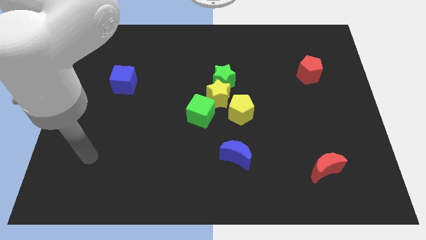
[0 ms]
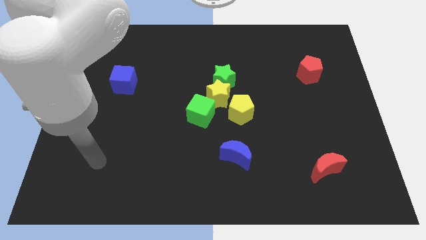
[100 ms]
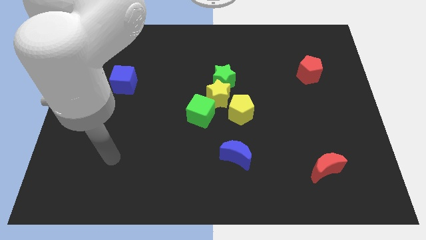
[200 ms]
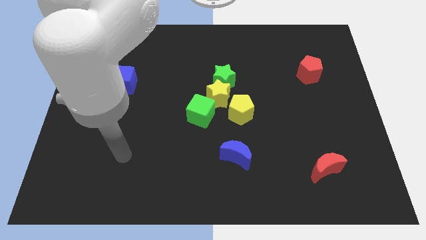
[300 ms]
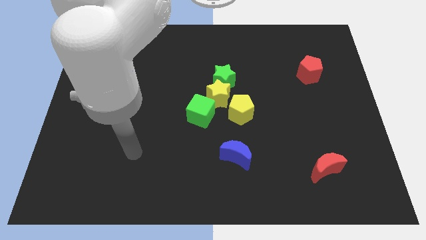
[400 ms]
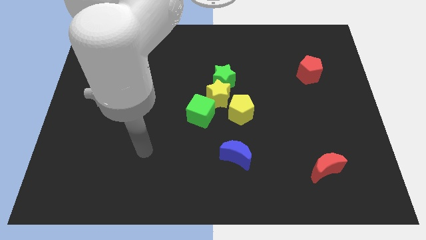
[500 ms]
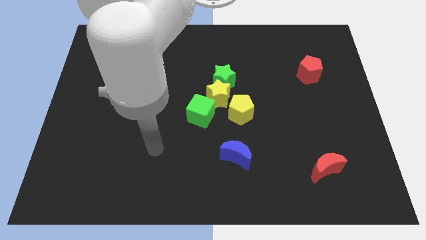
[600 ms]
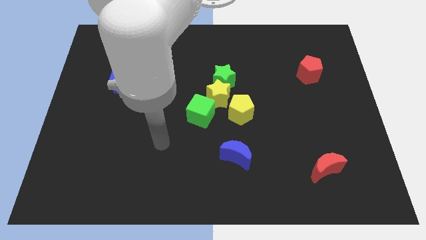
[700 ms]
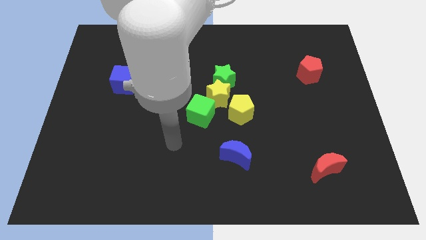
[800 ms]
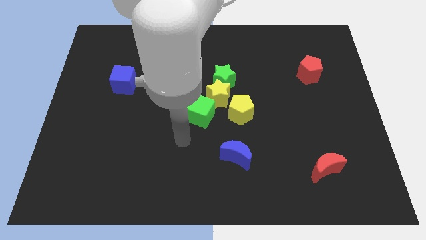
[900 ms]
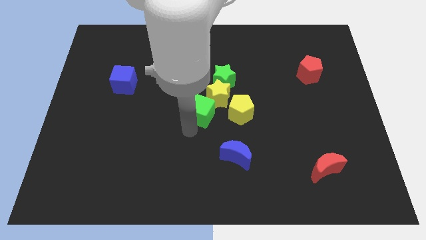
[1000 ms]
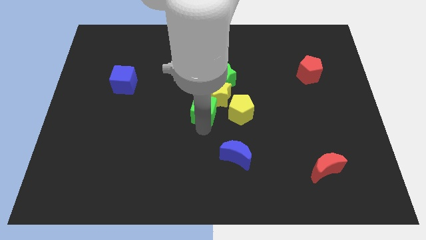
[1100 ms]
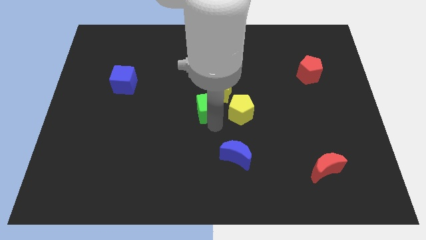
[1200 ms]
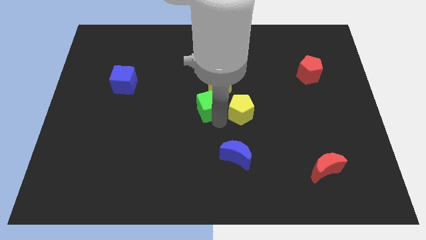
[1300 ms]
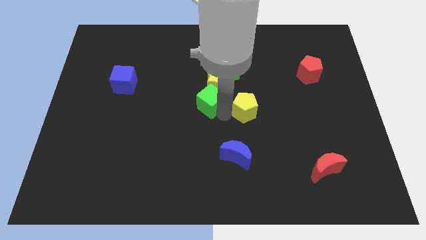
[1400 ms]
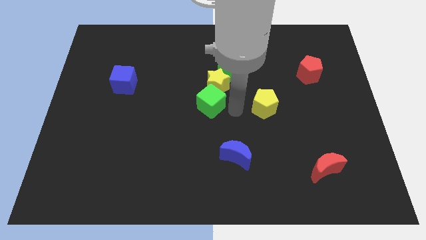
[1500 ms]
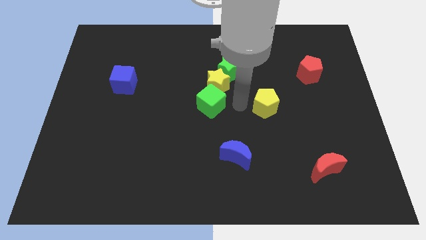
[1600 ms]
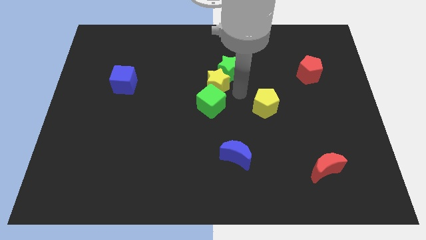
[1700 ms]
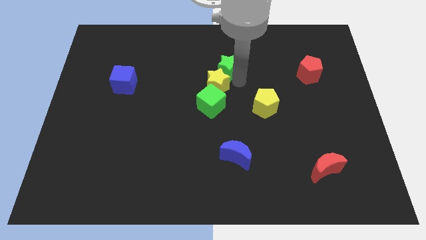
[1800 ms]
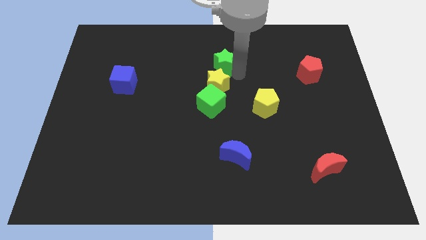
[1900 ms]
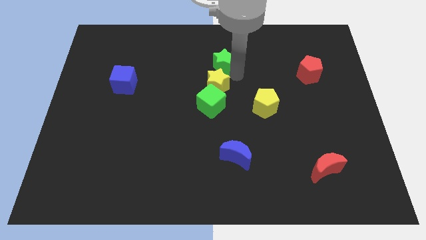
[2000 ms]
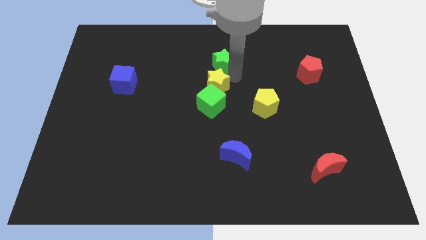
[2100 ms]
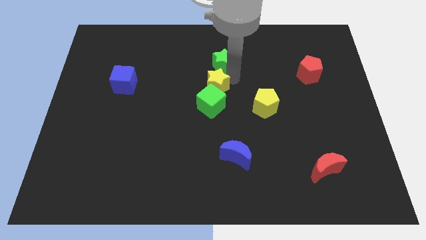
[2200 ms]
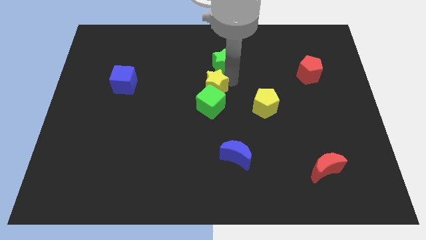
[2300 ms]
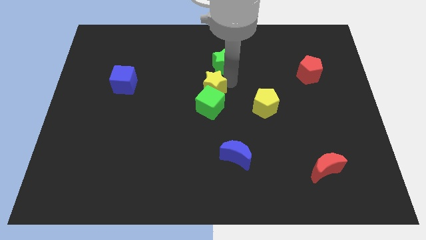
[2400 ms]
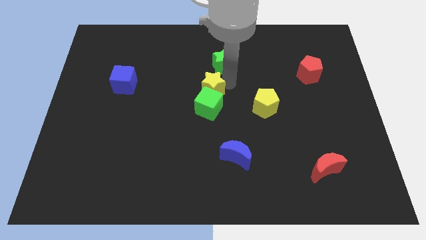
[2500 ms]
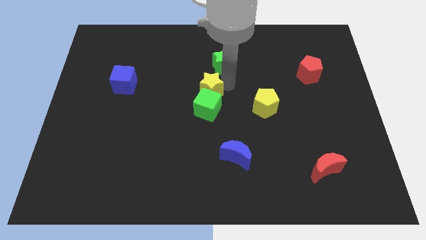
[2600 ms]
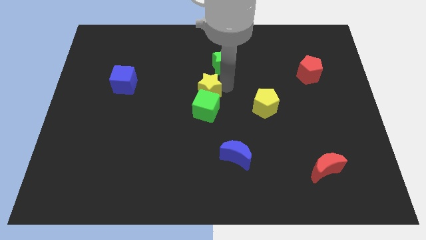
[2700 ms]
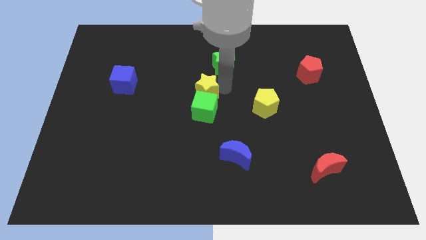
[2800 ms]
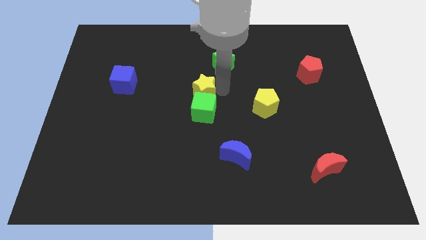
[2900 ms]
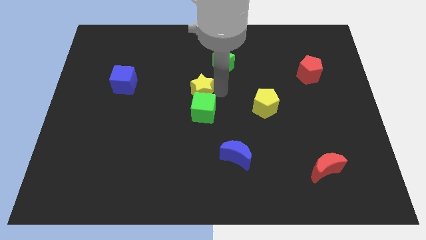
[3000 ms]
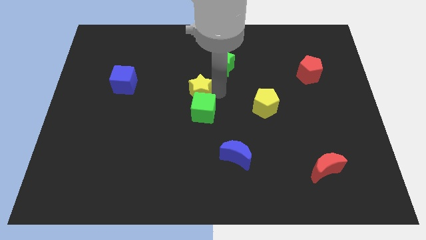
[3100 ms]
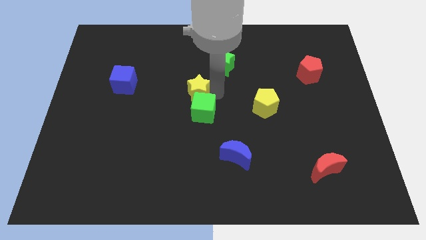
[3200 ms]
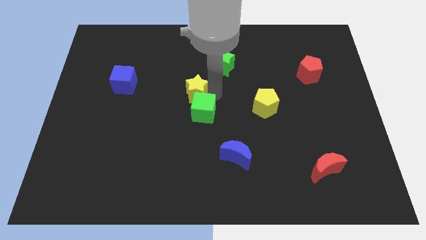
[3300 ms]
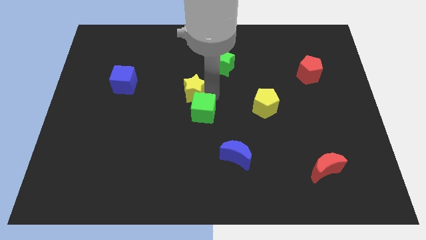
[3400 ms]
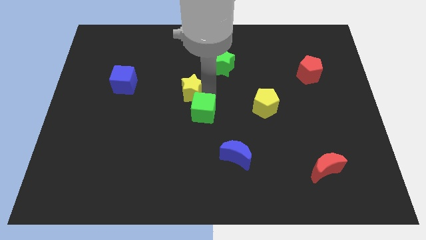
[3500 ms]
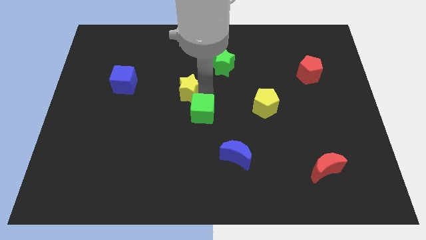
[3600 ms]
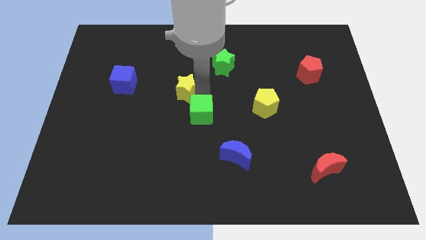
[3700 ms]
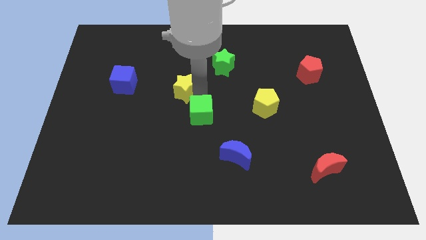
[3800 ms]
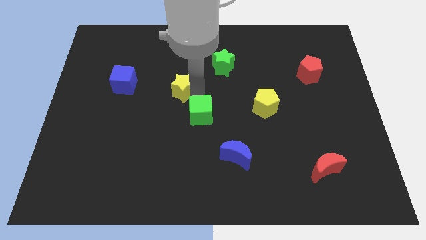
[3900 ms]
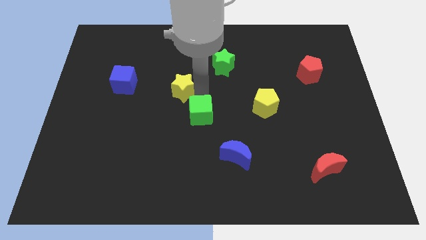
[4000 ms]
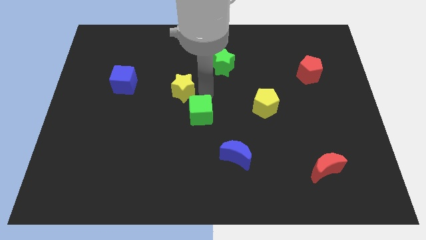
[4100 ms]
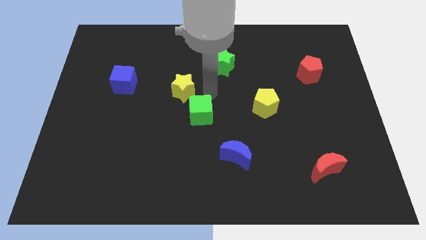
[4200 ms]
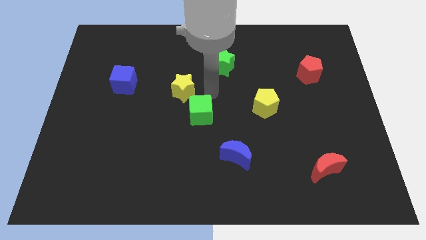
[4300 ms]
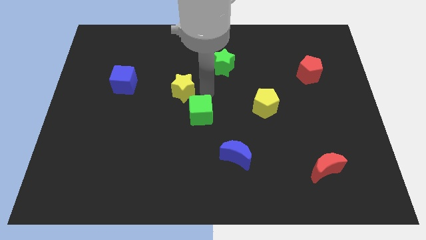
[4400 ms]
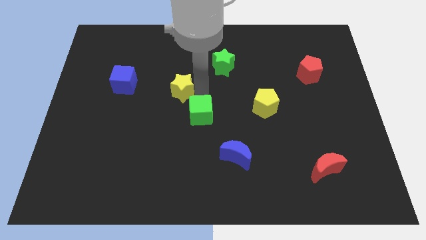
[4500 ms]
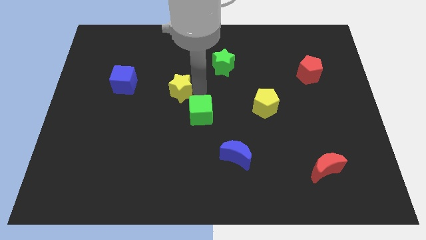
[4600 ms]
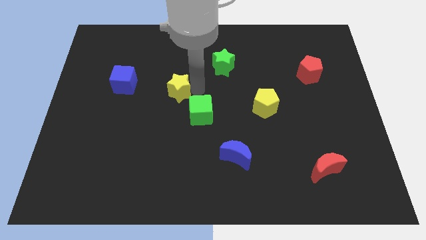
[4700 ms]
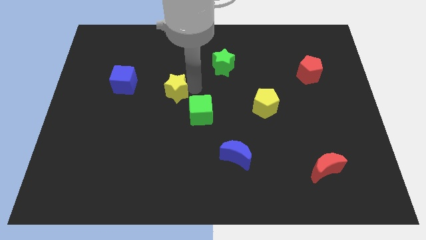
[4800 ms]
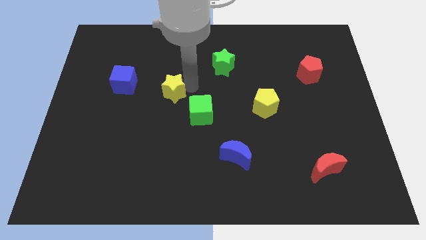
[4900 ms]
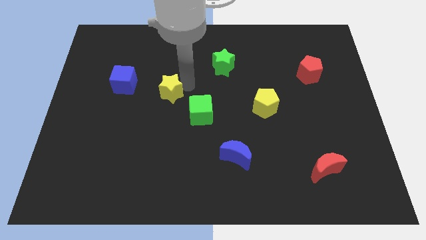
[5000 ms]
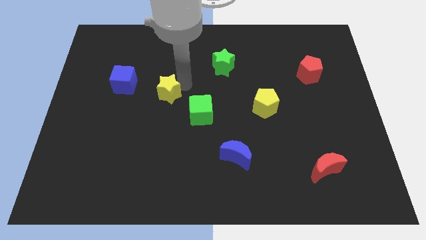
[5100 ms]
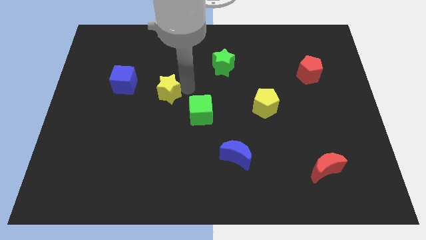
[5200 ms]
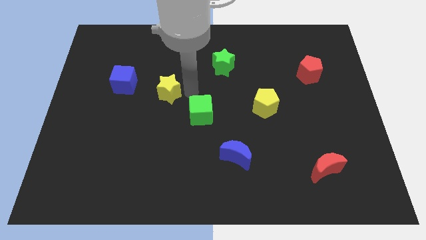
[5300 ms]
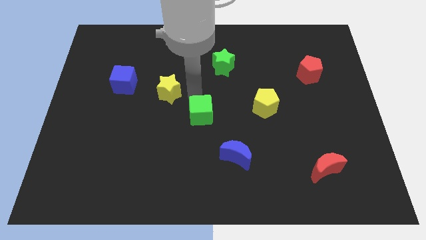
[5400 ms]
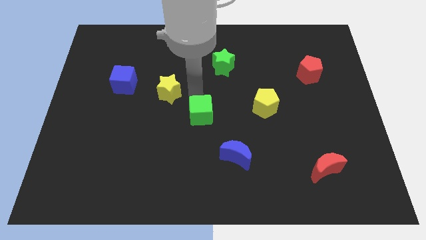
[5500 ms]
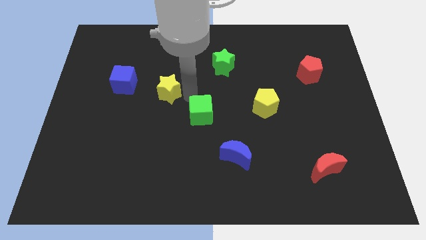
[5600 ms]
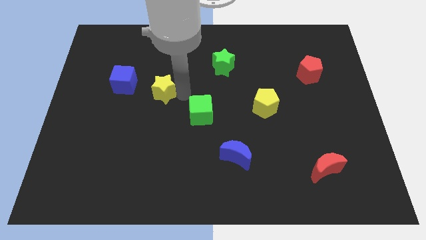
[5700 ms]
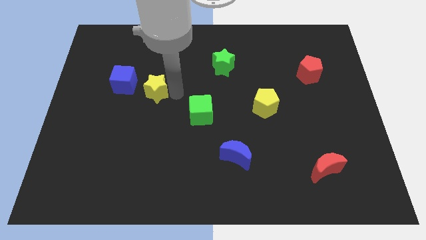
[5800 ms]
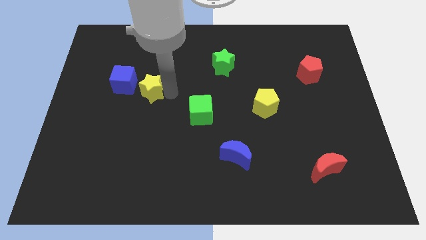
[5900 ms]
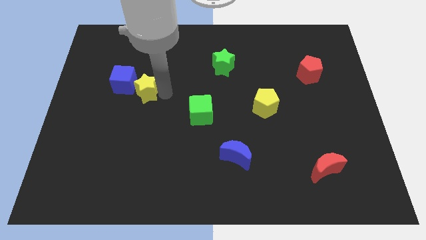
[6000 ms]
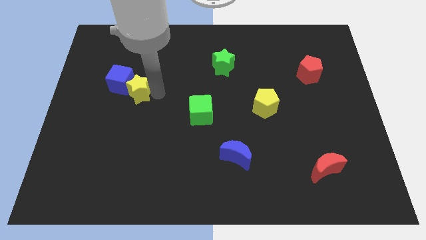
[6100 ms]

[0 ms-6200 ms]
move the yellow star to the blue cube

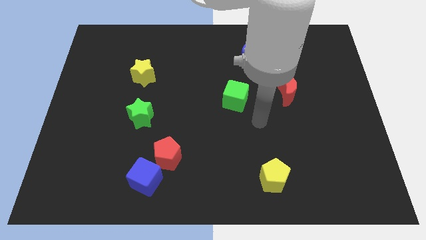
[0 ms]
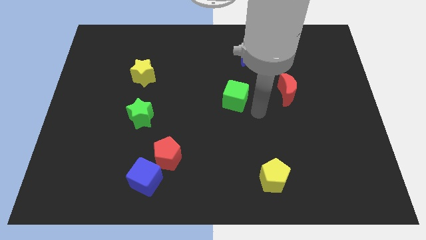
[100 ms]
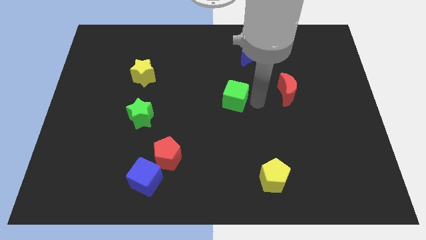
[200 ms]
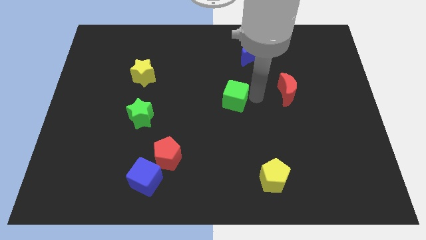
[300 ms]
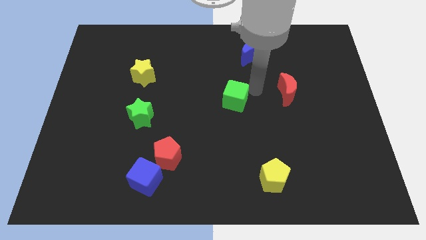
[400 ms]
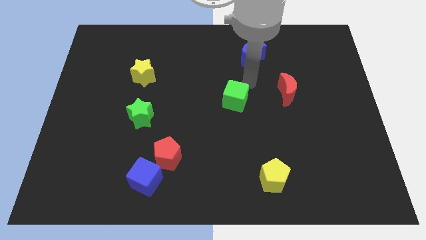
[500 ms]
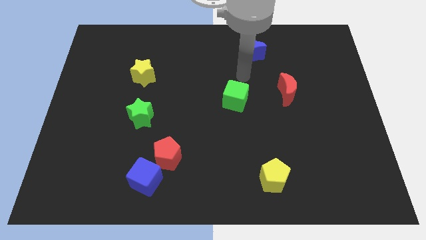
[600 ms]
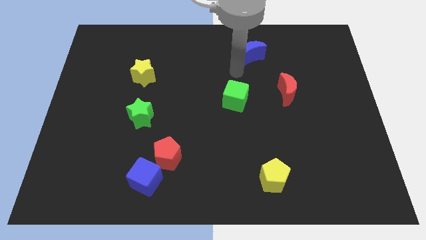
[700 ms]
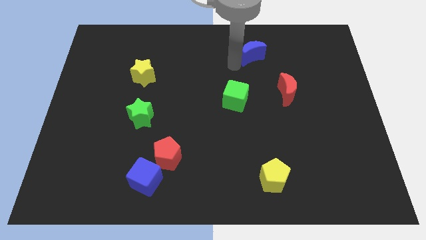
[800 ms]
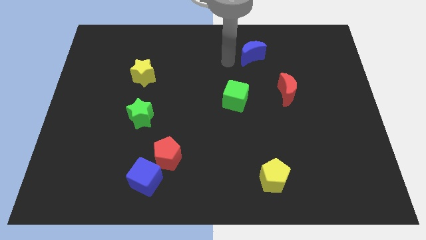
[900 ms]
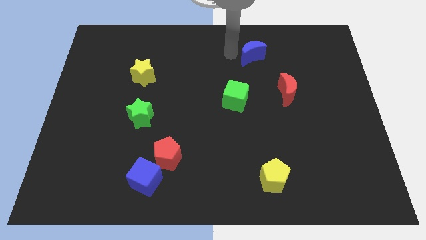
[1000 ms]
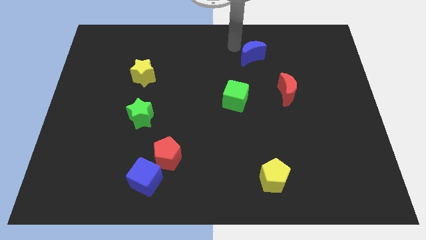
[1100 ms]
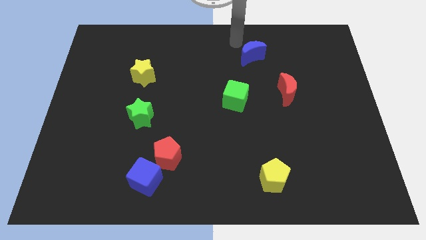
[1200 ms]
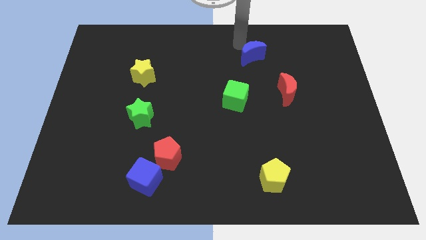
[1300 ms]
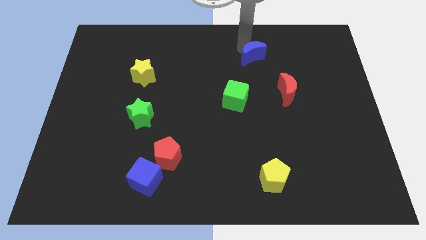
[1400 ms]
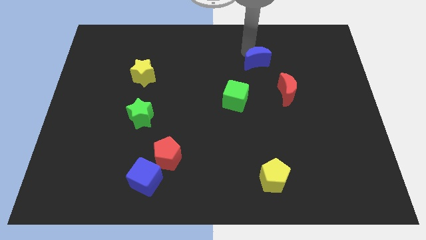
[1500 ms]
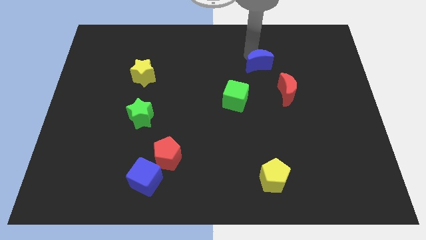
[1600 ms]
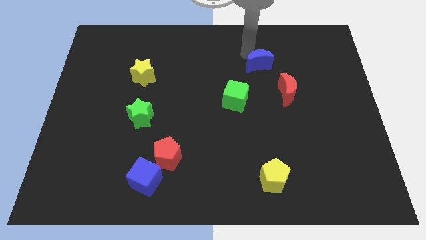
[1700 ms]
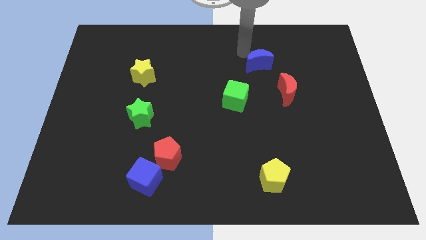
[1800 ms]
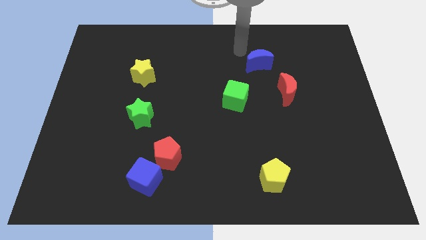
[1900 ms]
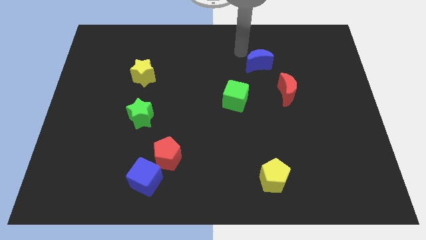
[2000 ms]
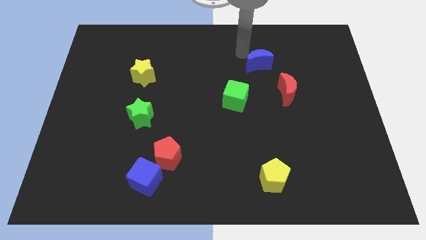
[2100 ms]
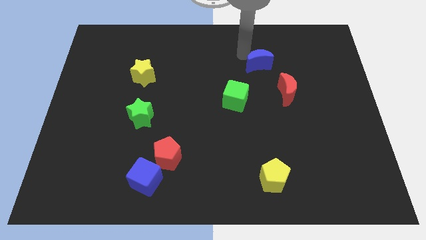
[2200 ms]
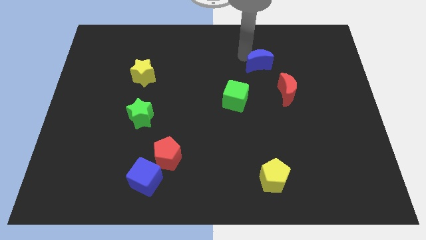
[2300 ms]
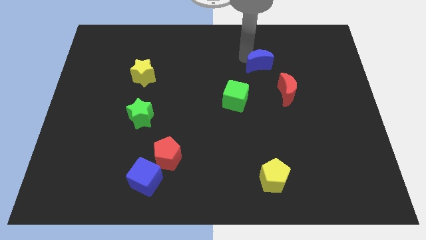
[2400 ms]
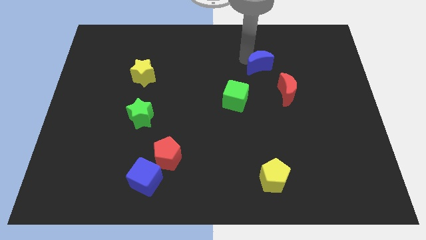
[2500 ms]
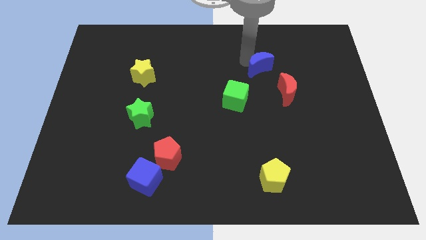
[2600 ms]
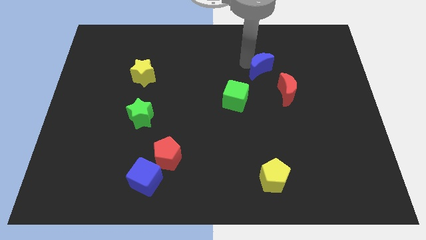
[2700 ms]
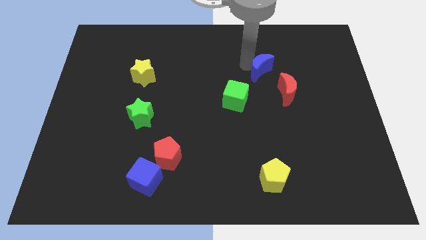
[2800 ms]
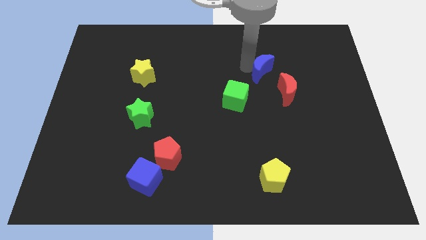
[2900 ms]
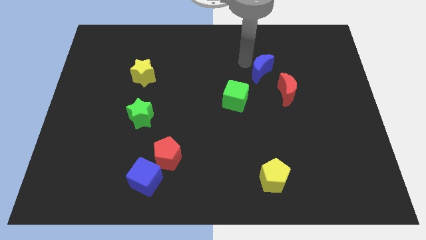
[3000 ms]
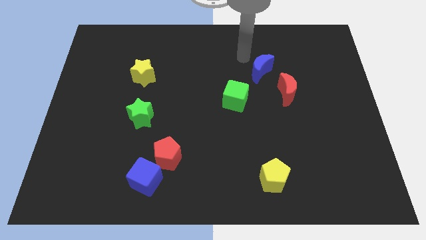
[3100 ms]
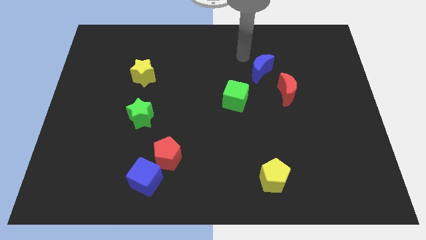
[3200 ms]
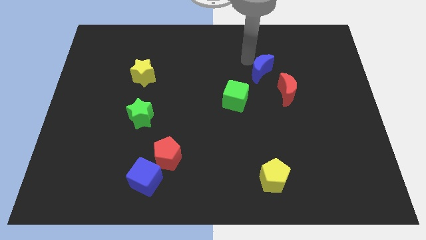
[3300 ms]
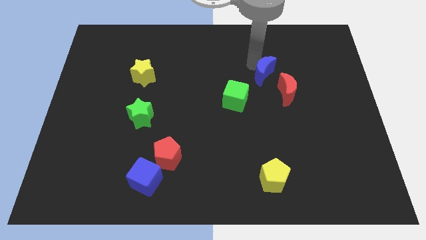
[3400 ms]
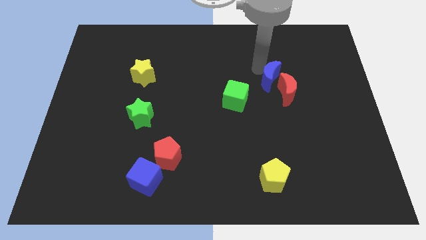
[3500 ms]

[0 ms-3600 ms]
slide the blue moon towards the red moon
